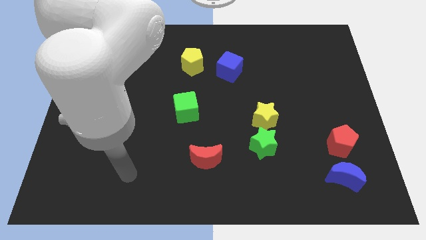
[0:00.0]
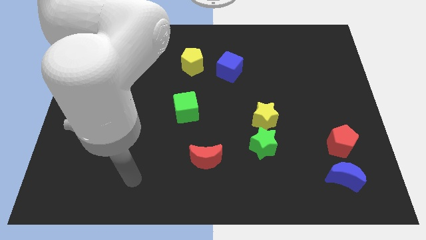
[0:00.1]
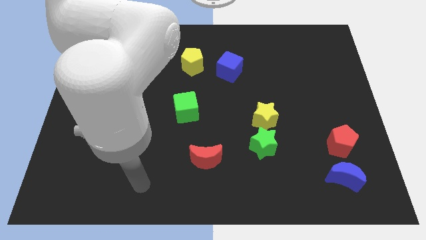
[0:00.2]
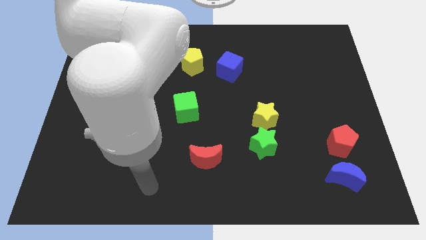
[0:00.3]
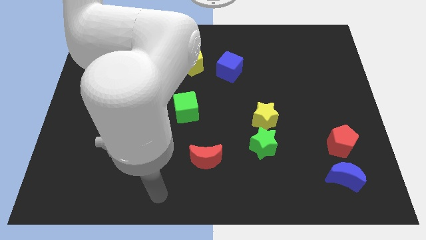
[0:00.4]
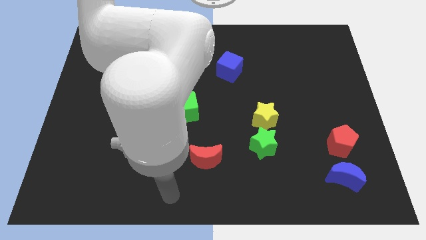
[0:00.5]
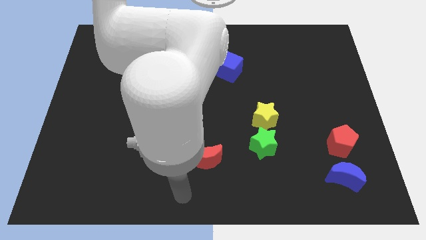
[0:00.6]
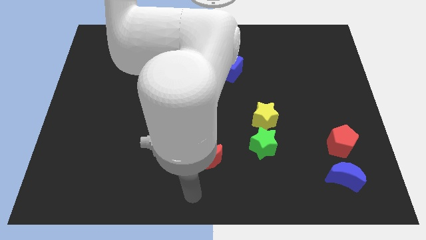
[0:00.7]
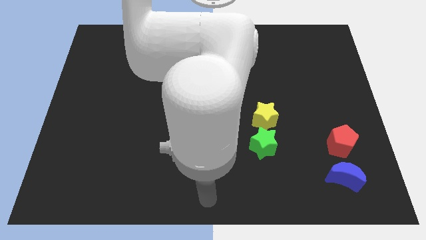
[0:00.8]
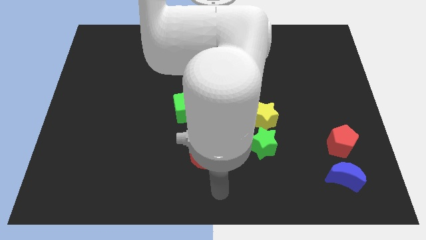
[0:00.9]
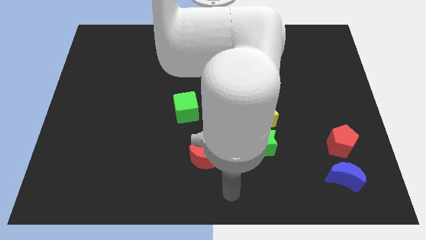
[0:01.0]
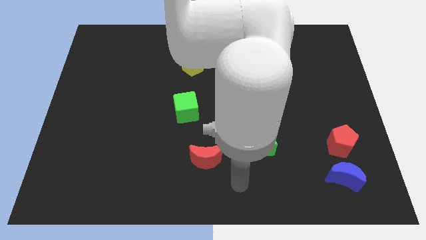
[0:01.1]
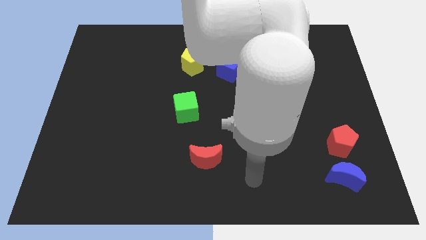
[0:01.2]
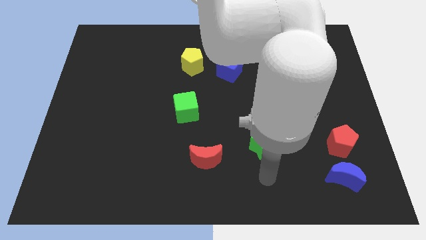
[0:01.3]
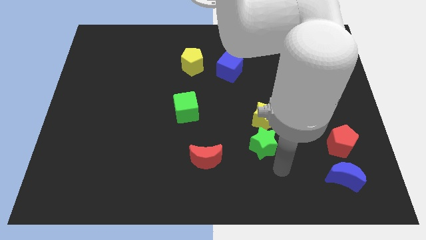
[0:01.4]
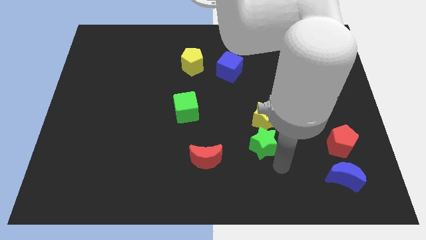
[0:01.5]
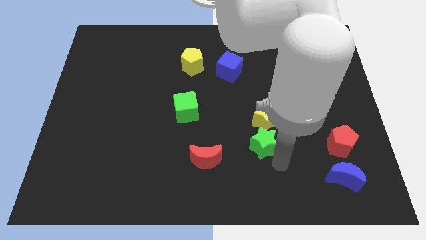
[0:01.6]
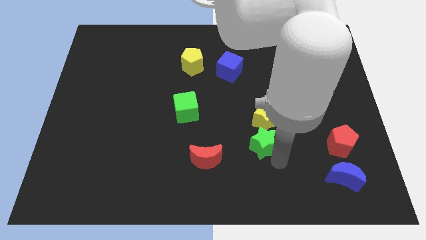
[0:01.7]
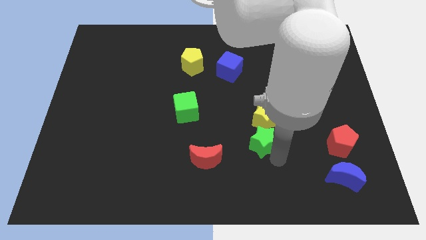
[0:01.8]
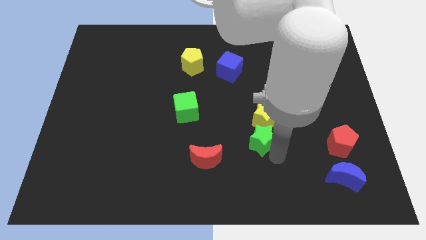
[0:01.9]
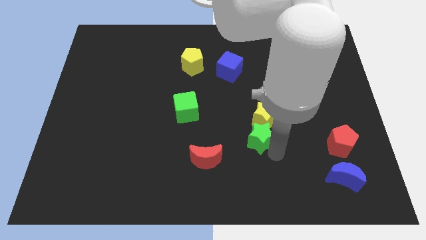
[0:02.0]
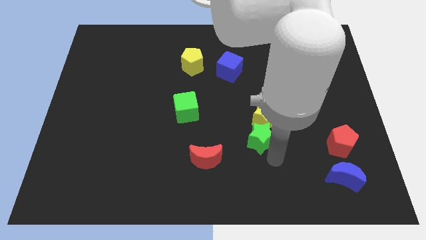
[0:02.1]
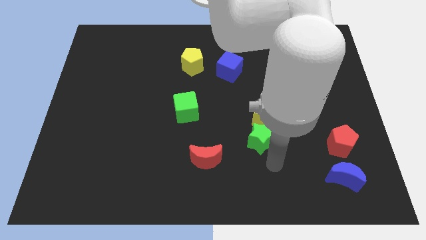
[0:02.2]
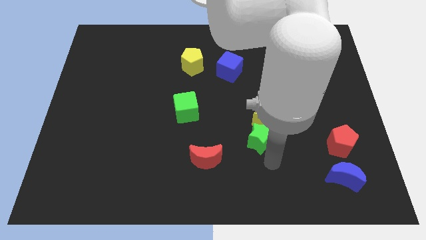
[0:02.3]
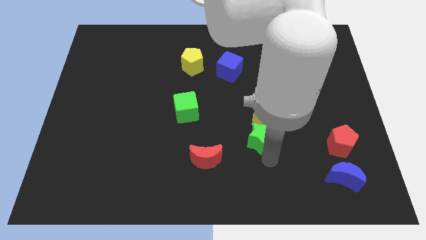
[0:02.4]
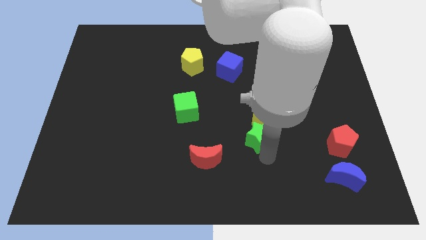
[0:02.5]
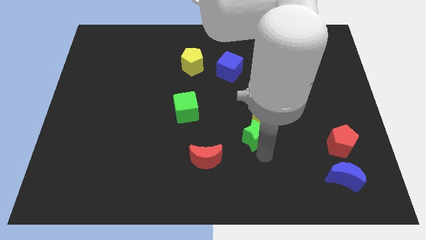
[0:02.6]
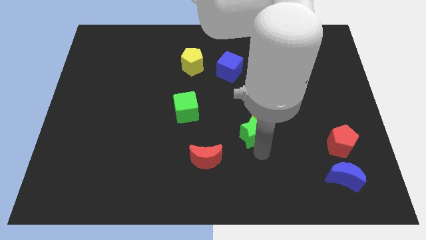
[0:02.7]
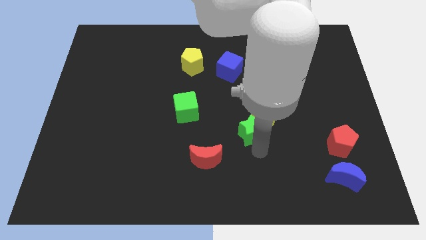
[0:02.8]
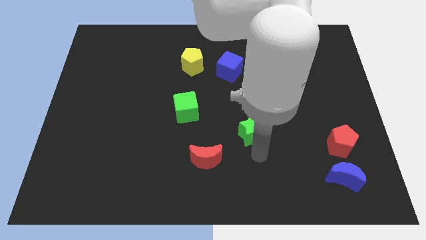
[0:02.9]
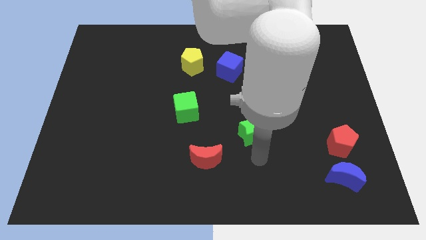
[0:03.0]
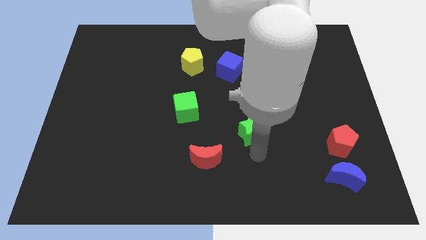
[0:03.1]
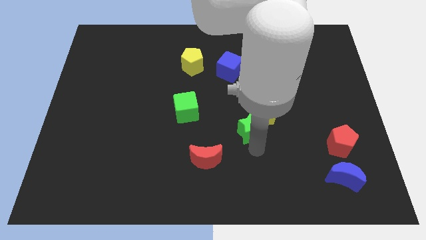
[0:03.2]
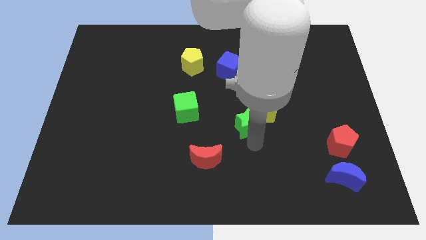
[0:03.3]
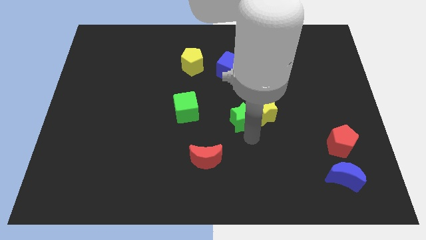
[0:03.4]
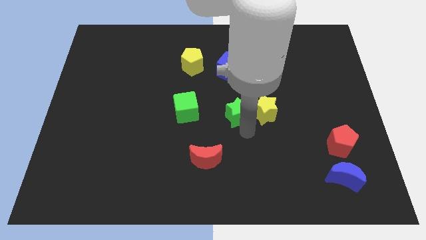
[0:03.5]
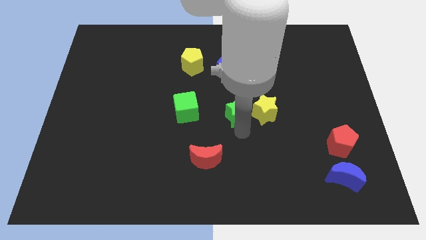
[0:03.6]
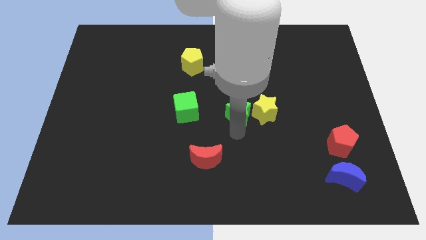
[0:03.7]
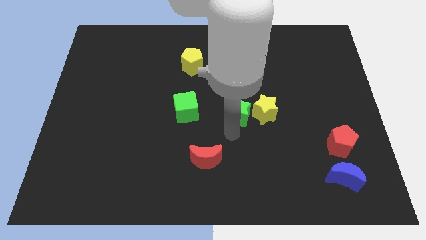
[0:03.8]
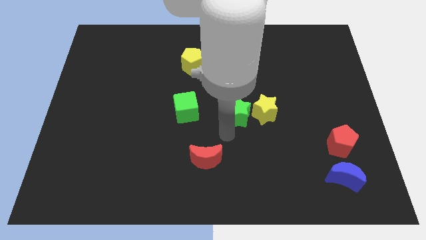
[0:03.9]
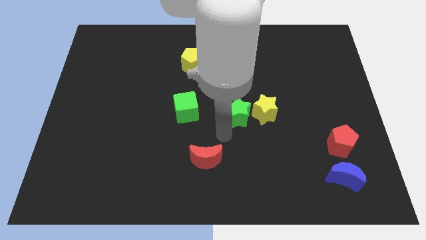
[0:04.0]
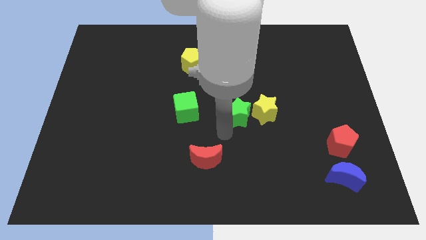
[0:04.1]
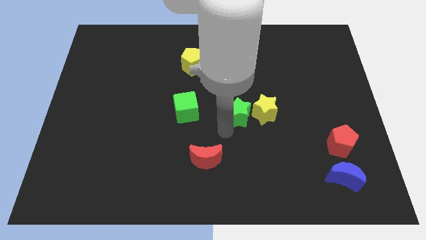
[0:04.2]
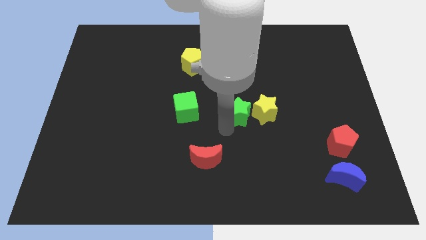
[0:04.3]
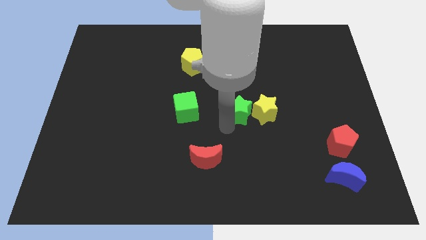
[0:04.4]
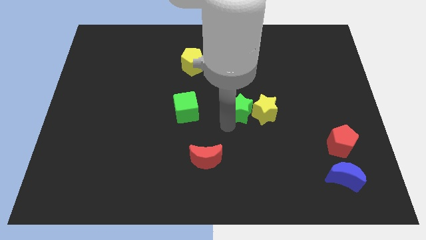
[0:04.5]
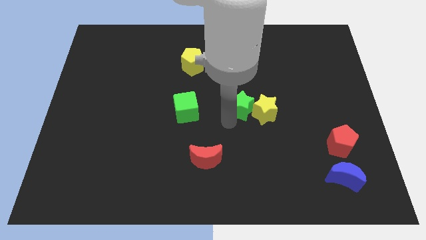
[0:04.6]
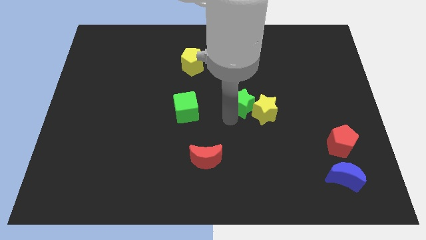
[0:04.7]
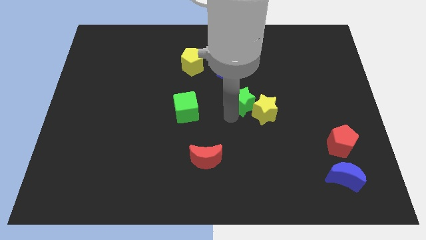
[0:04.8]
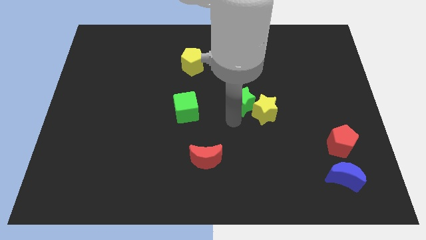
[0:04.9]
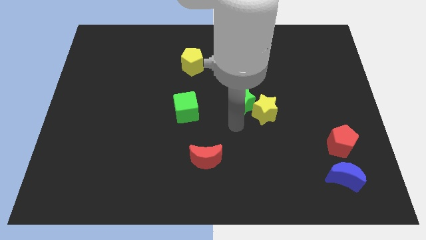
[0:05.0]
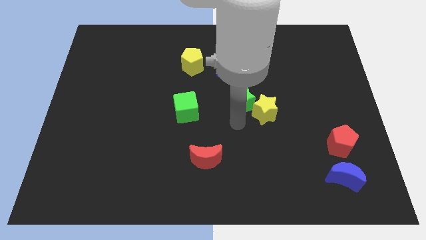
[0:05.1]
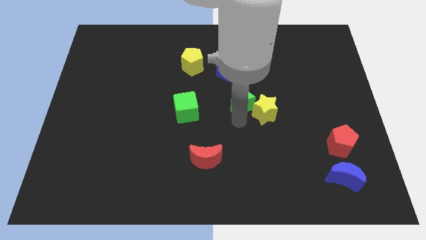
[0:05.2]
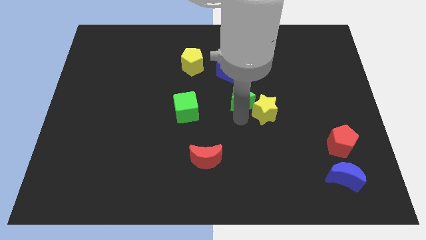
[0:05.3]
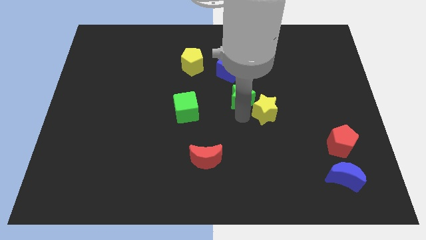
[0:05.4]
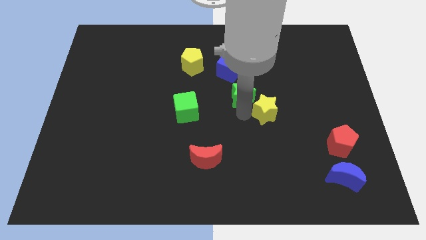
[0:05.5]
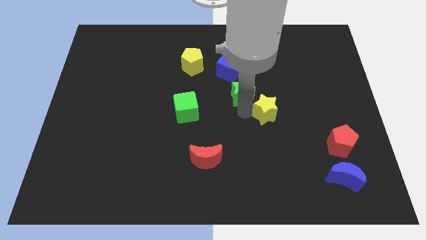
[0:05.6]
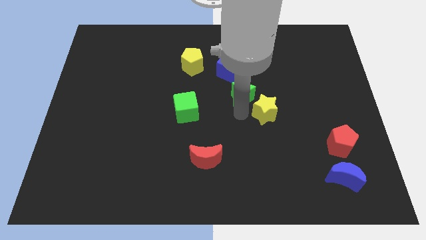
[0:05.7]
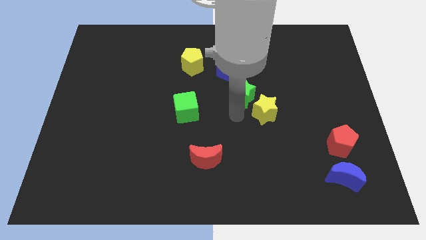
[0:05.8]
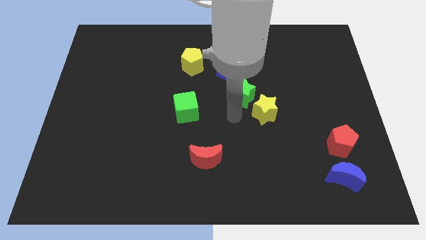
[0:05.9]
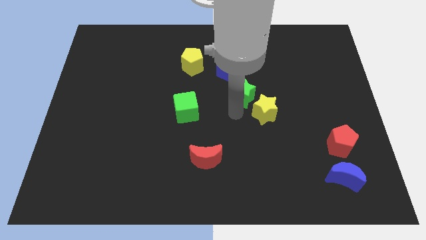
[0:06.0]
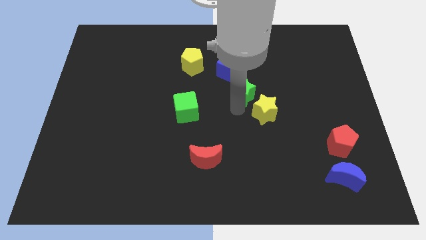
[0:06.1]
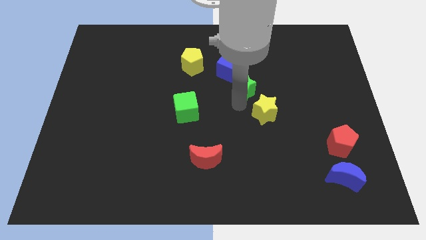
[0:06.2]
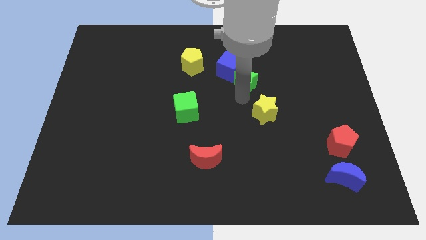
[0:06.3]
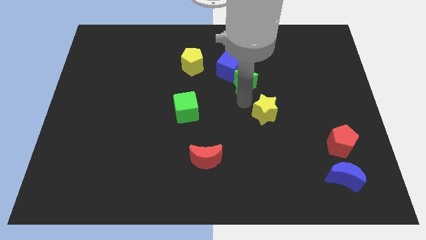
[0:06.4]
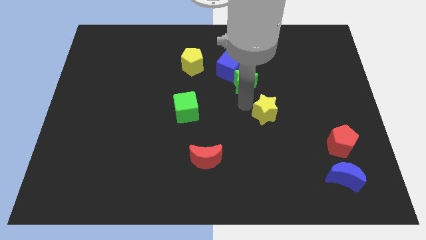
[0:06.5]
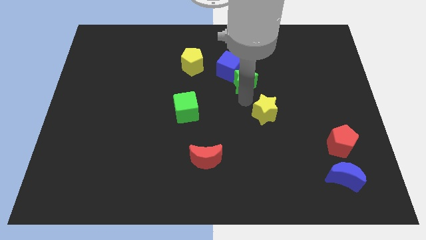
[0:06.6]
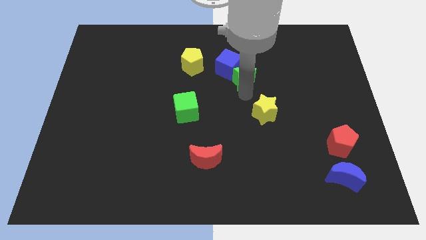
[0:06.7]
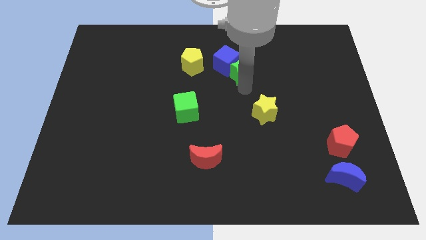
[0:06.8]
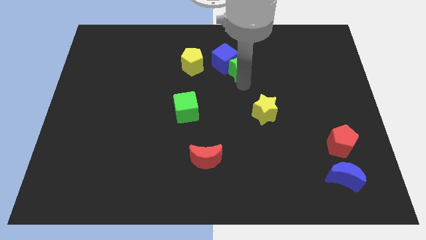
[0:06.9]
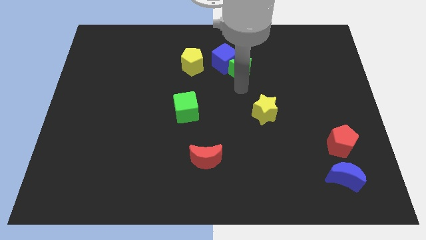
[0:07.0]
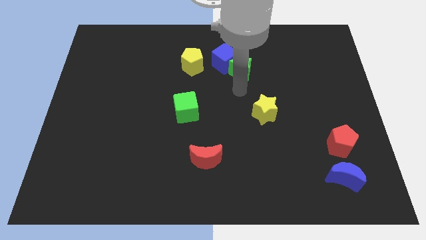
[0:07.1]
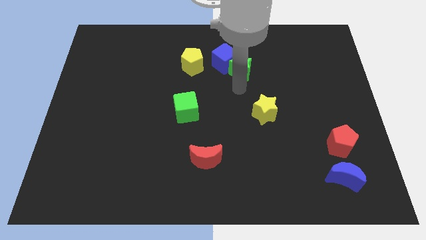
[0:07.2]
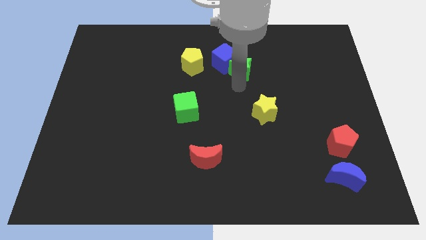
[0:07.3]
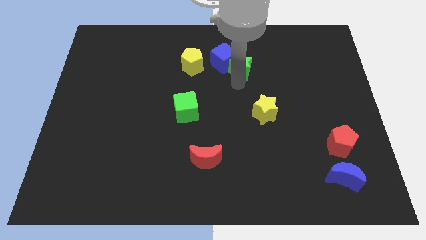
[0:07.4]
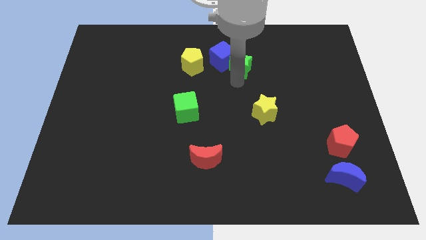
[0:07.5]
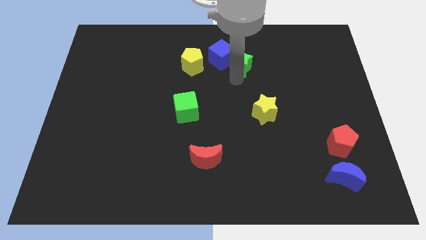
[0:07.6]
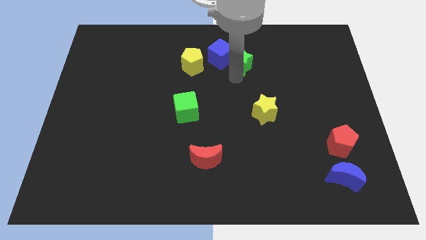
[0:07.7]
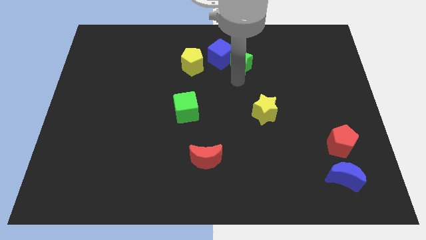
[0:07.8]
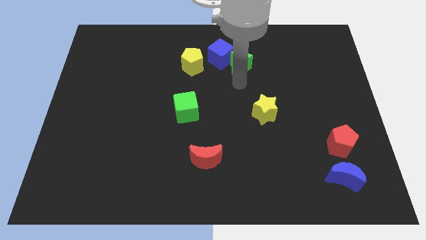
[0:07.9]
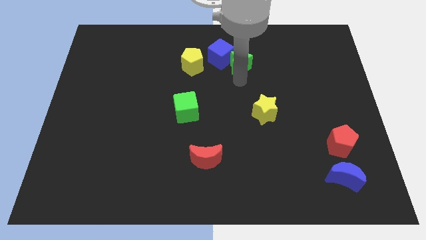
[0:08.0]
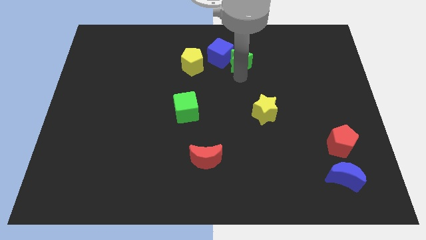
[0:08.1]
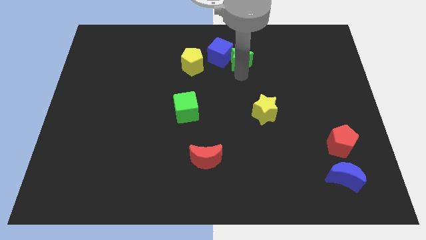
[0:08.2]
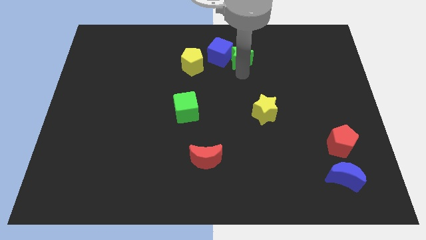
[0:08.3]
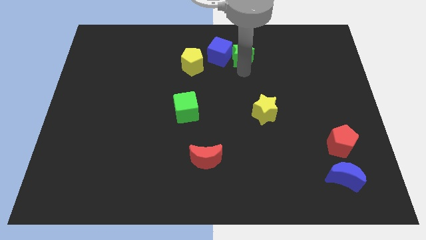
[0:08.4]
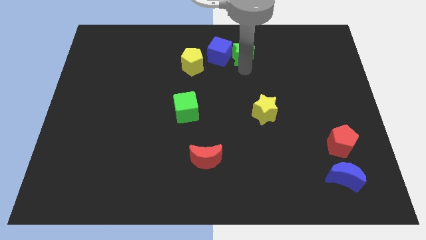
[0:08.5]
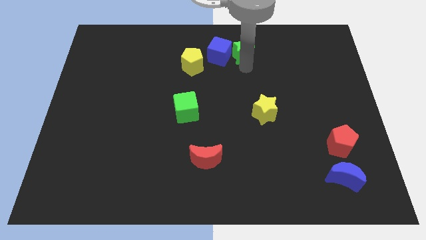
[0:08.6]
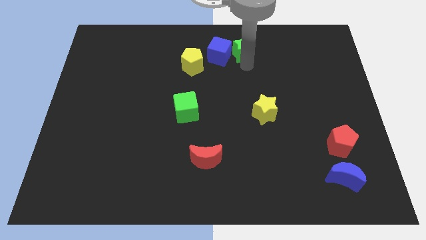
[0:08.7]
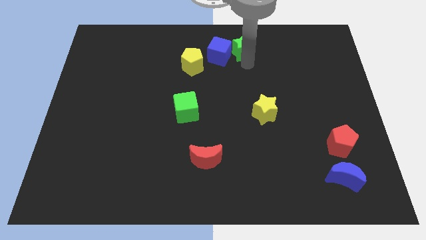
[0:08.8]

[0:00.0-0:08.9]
move the green star to the top side
